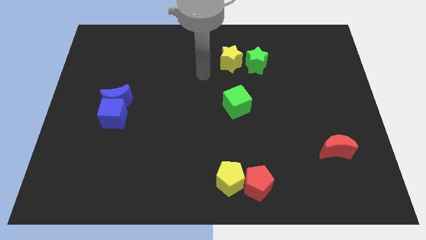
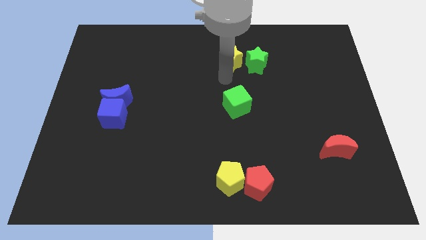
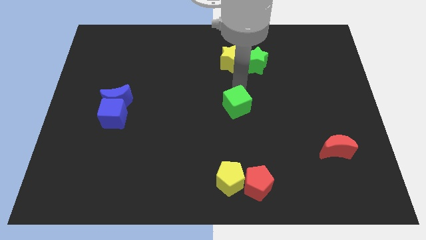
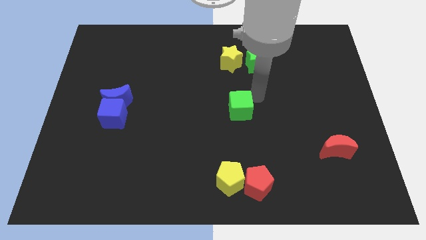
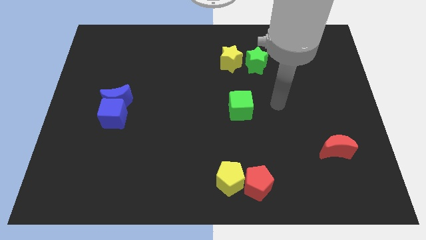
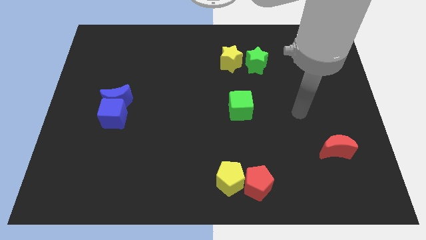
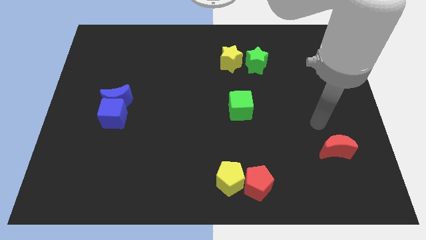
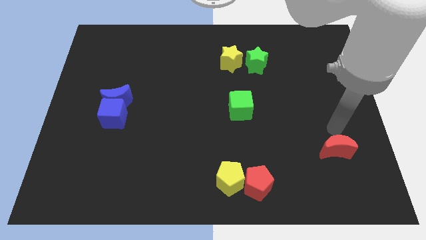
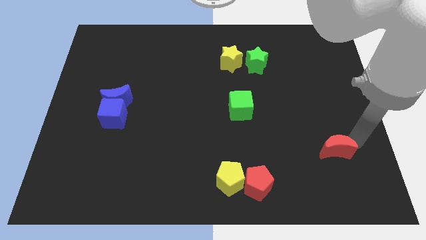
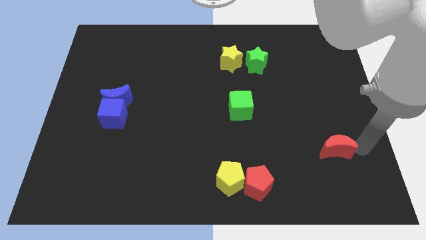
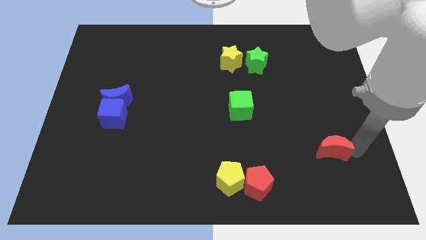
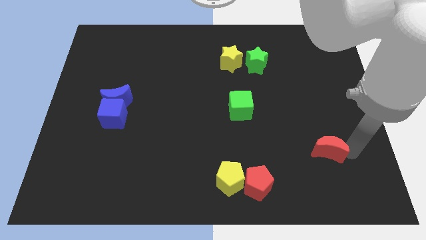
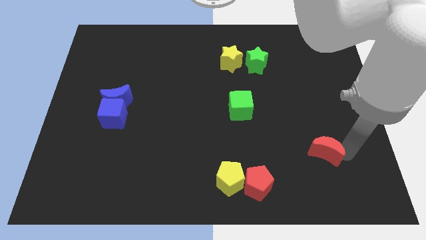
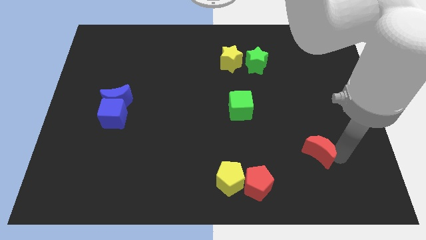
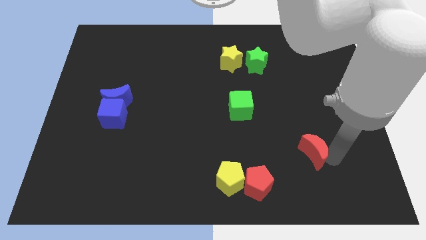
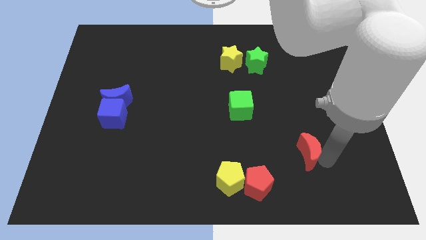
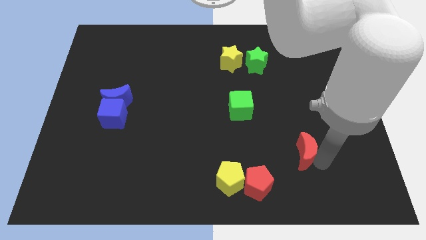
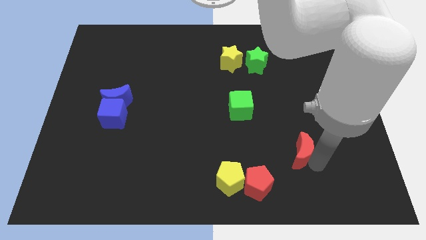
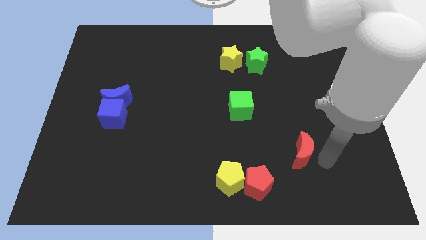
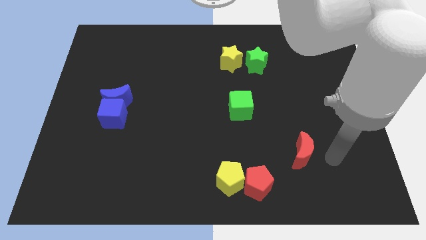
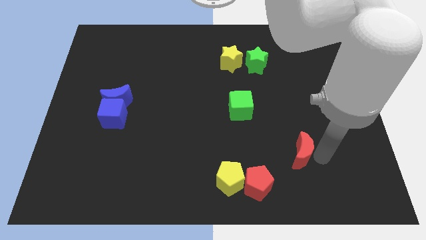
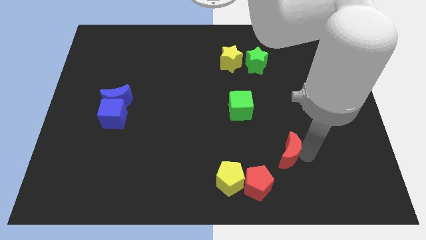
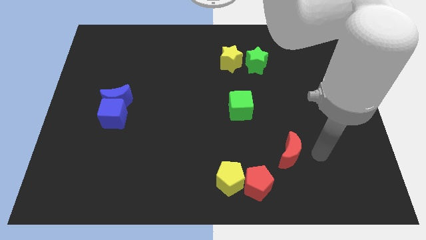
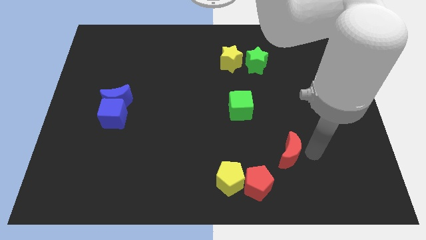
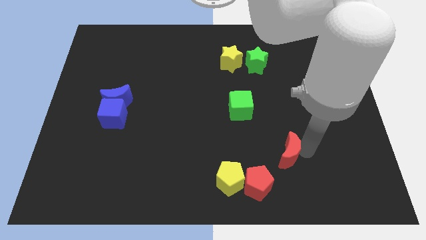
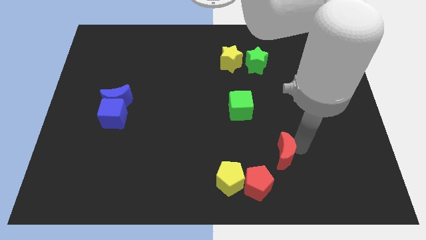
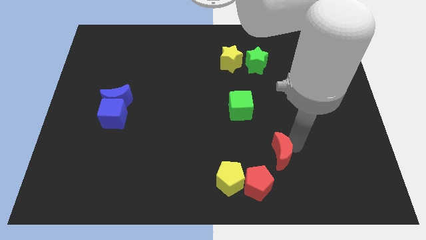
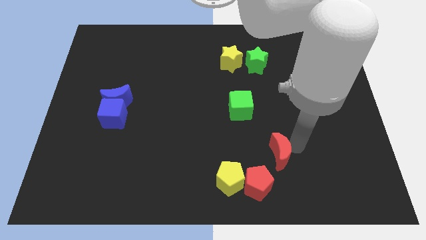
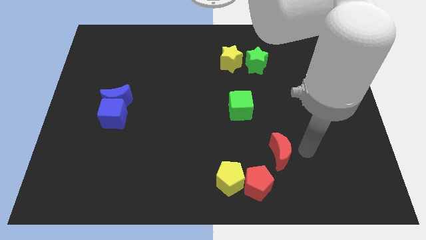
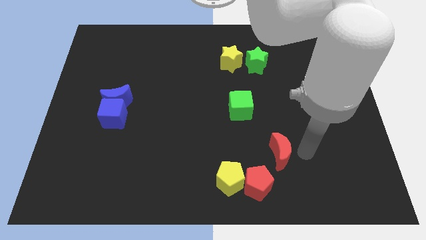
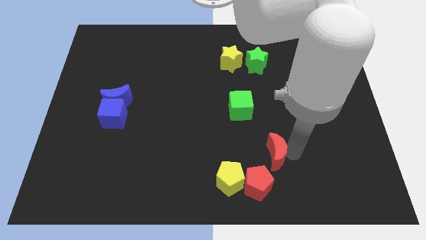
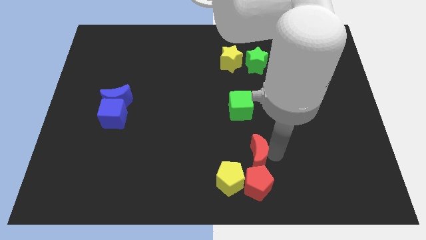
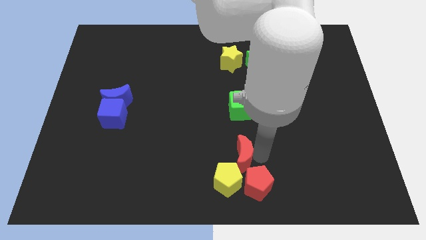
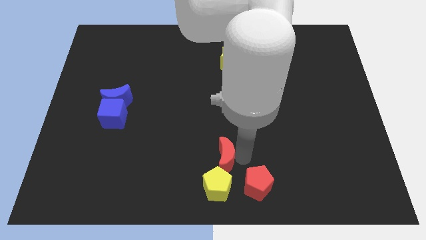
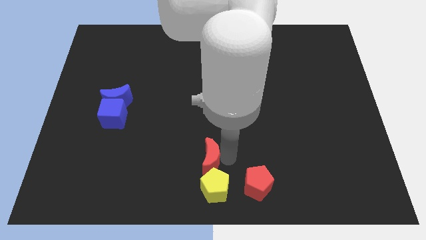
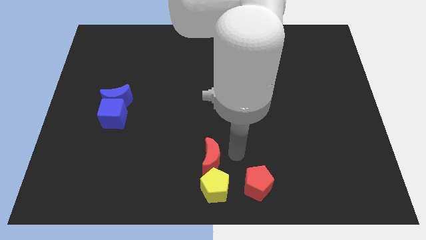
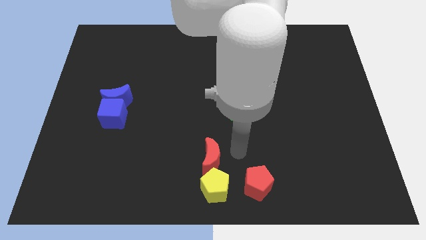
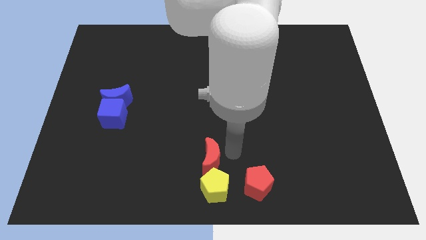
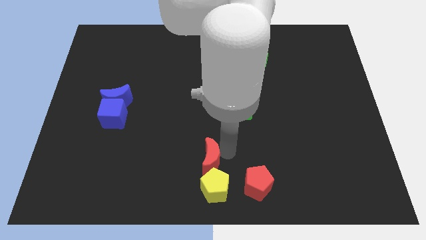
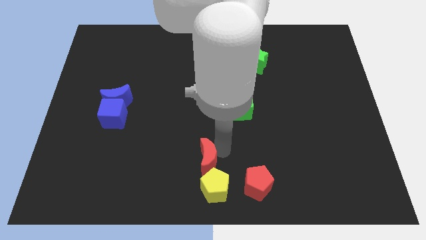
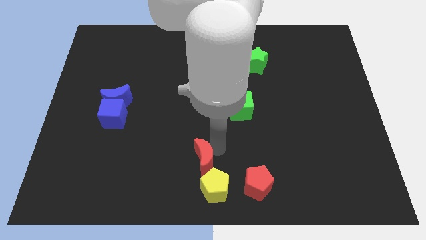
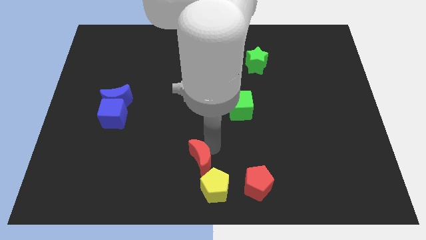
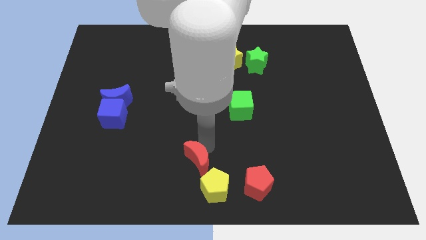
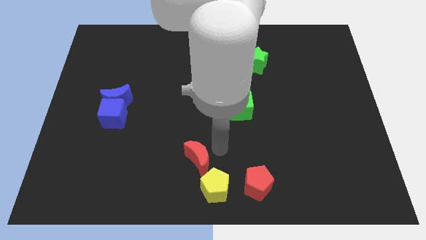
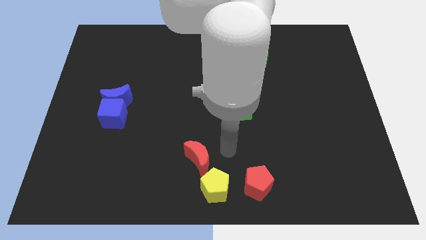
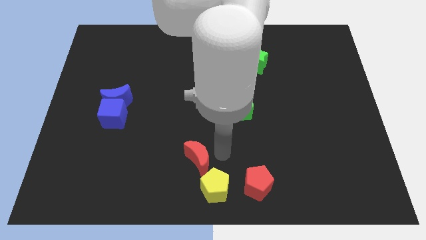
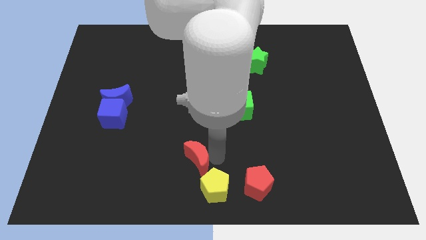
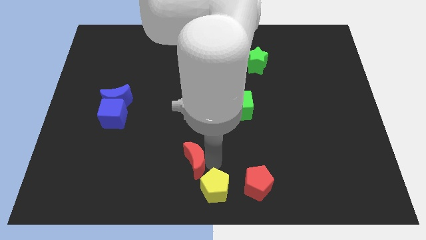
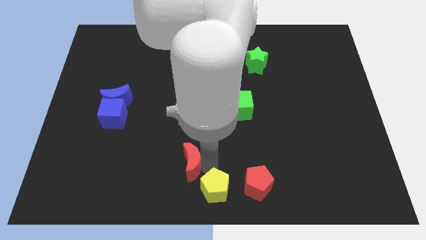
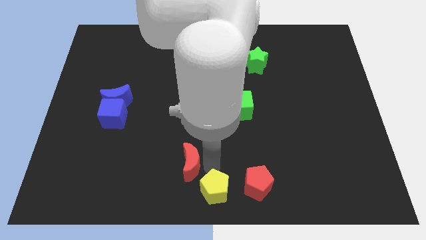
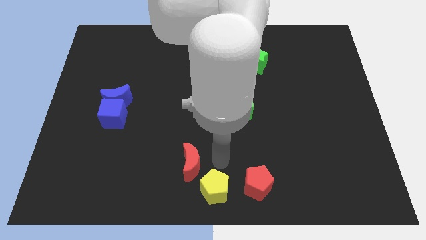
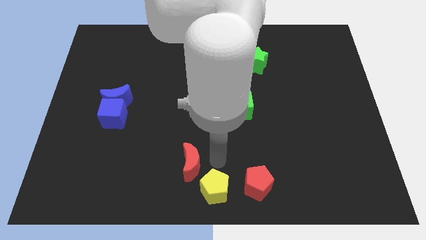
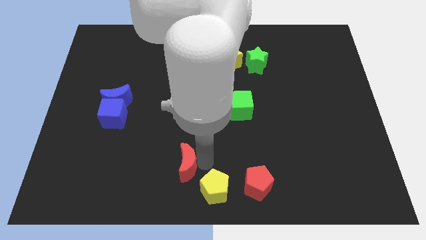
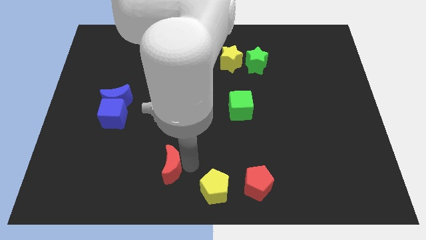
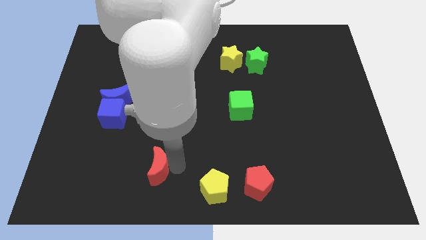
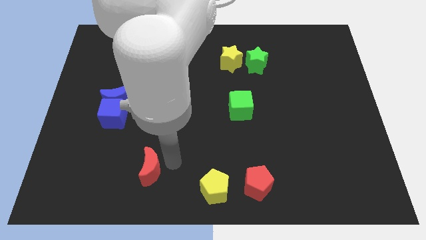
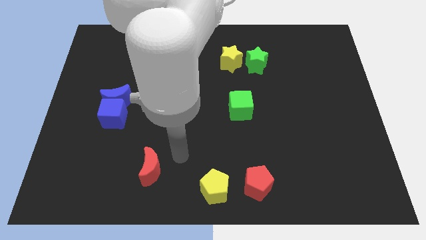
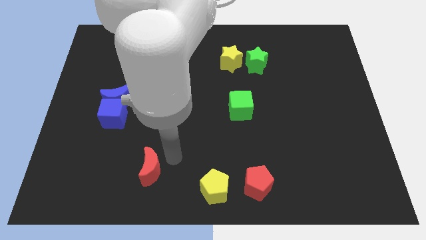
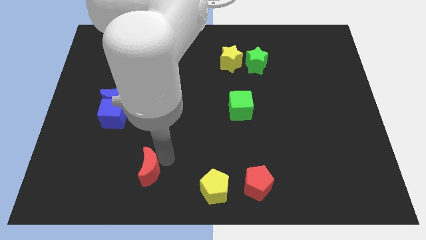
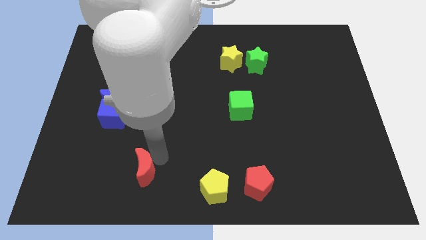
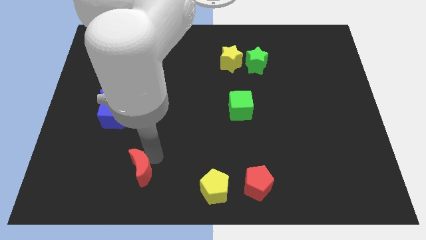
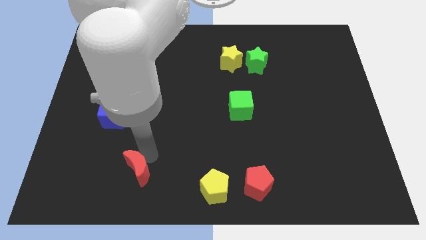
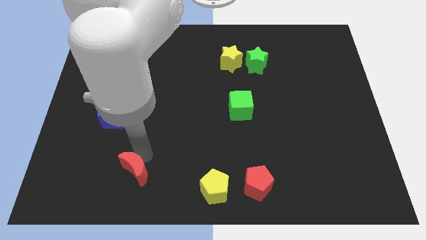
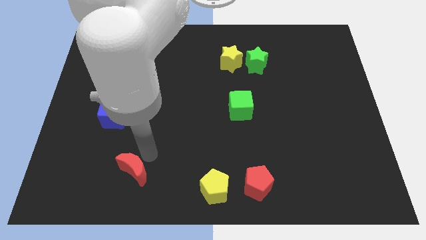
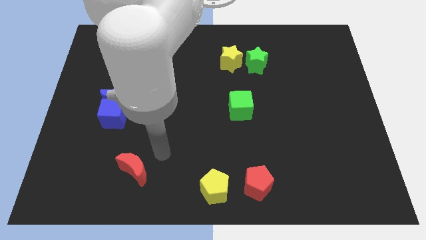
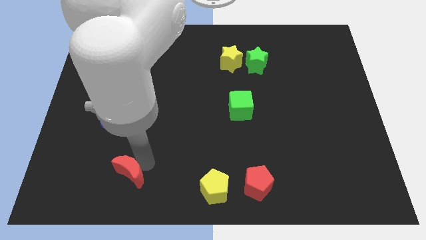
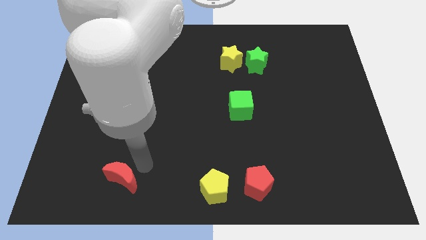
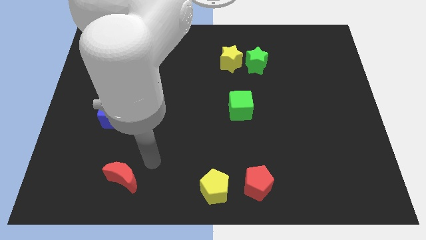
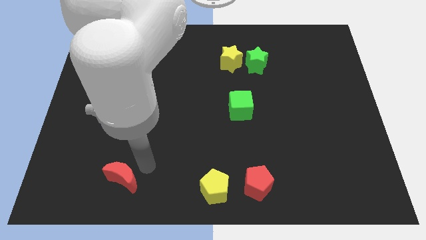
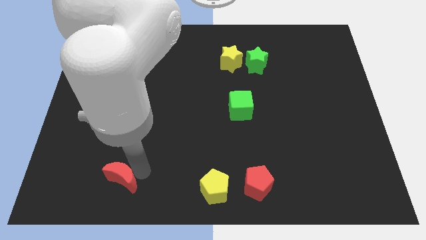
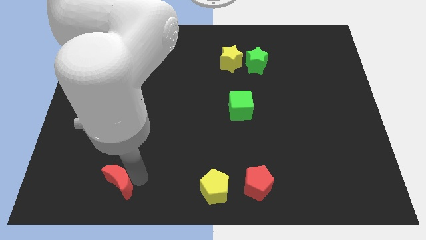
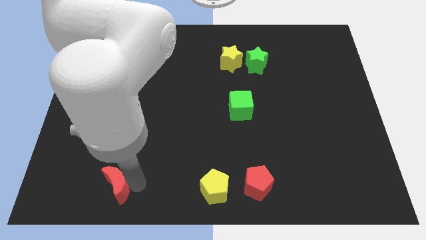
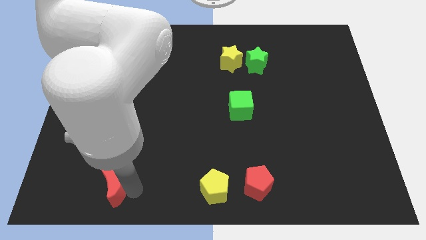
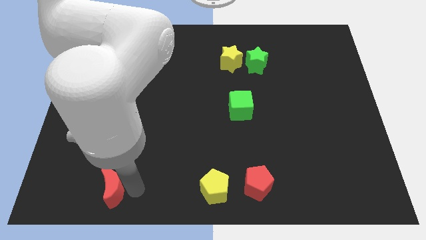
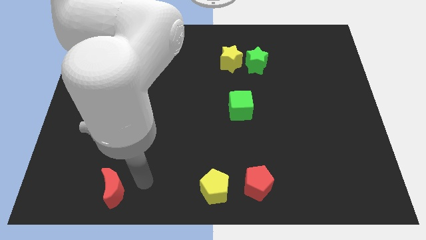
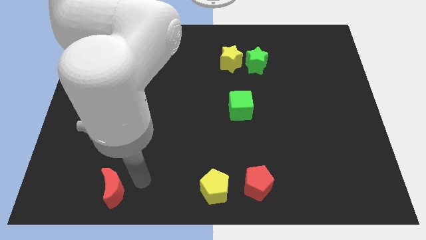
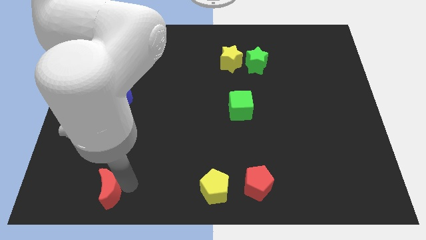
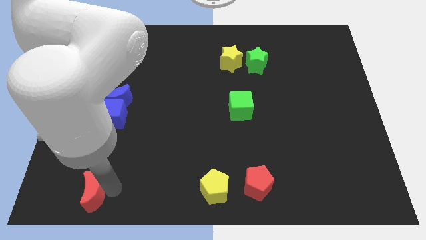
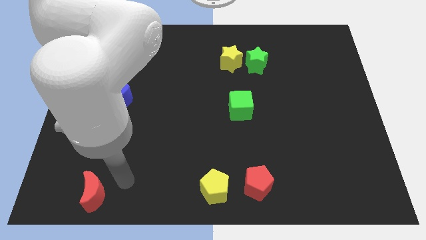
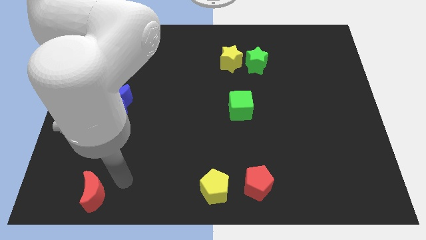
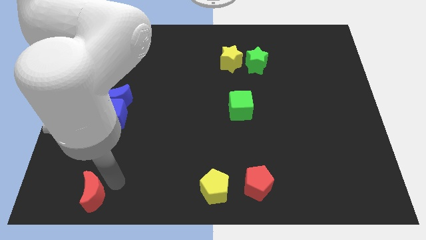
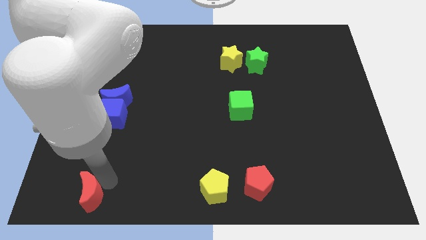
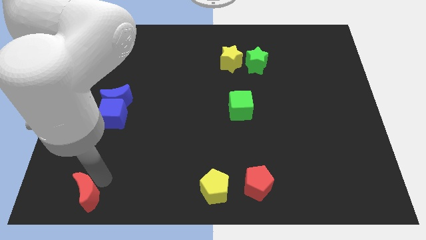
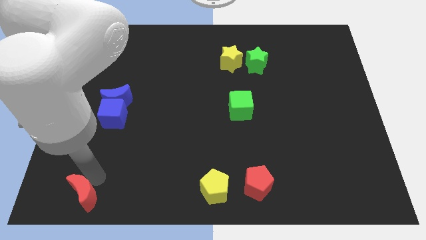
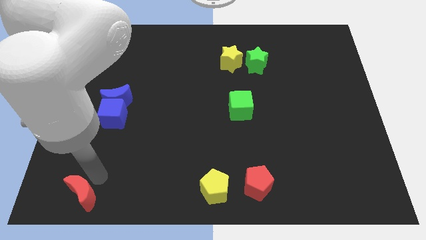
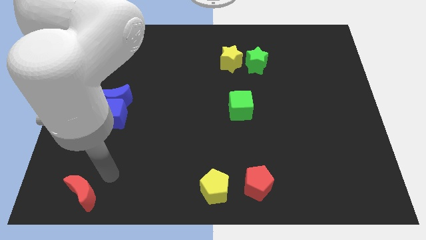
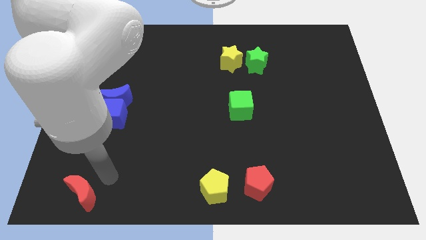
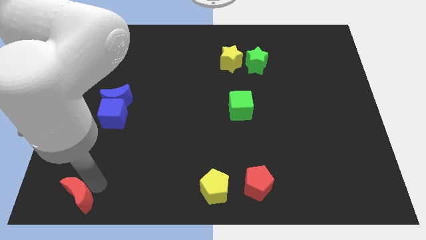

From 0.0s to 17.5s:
slide the red moon to the bottom left
